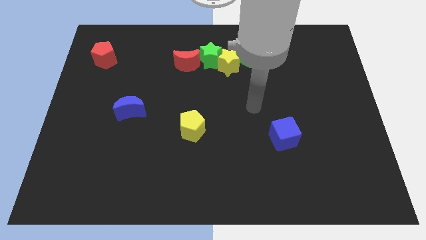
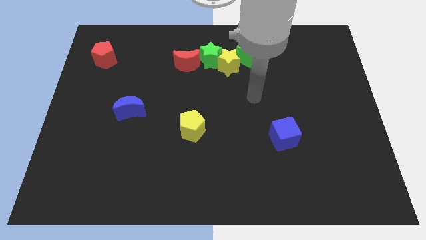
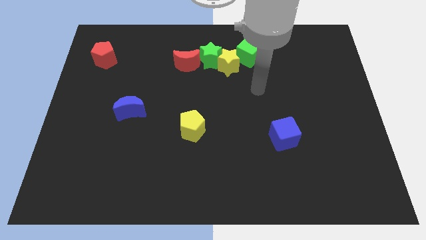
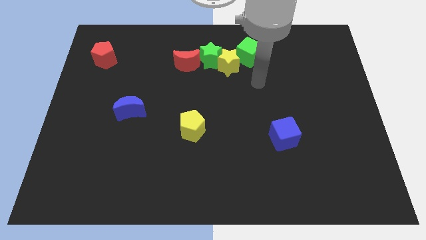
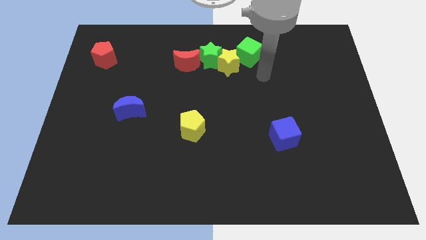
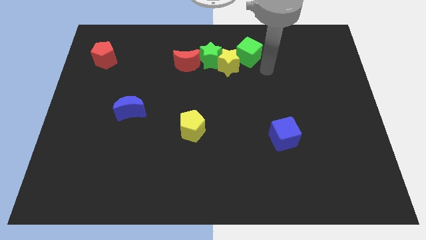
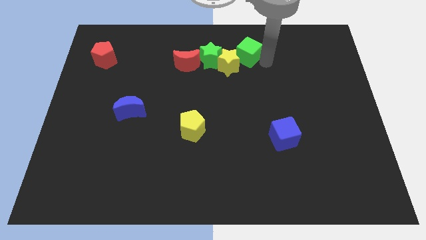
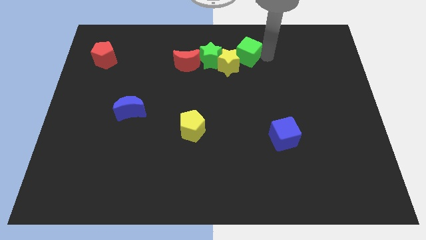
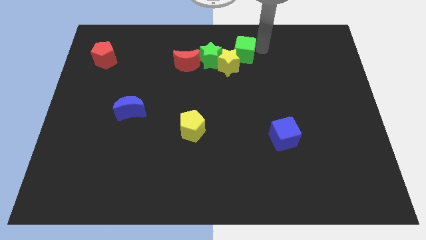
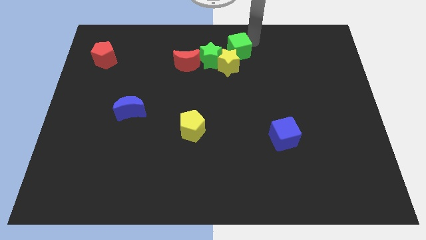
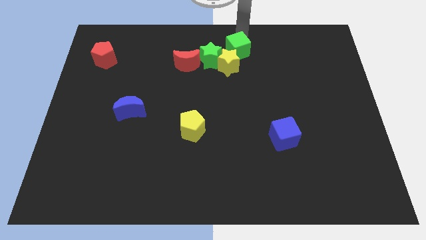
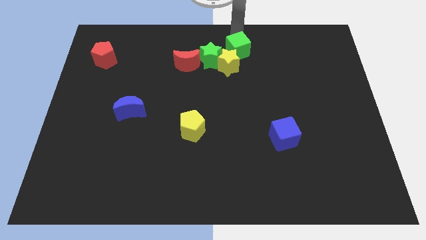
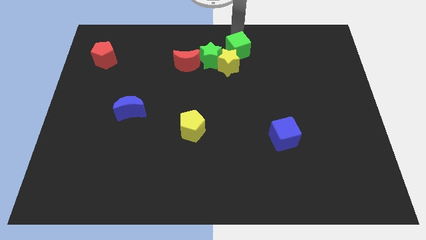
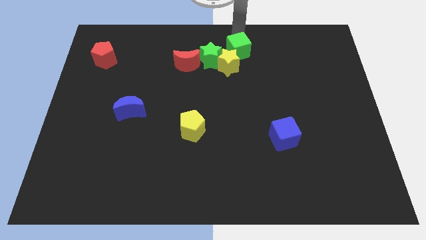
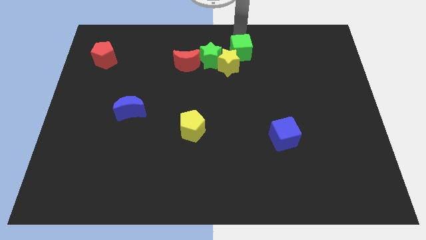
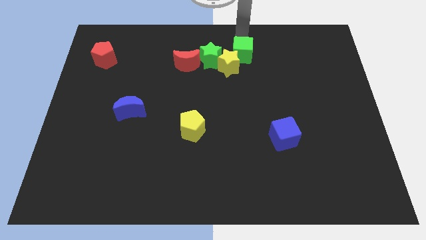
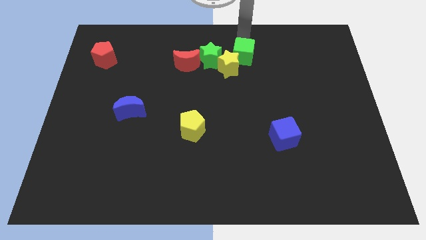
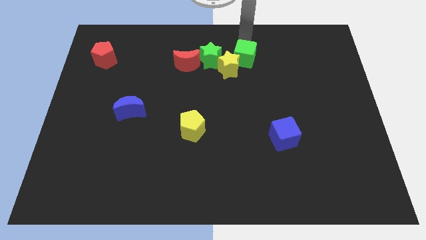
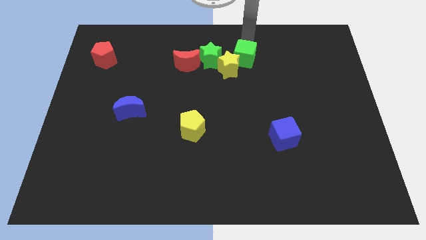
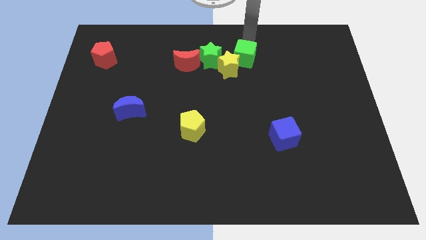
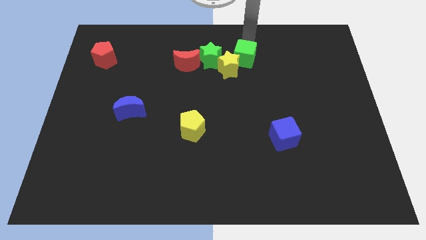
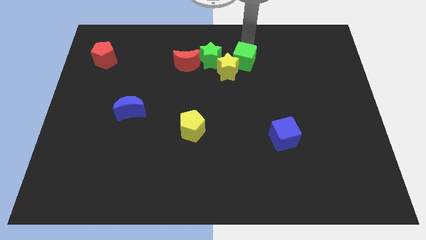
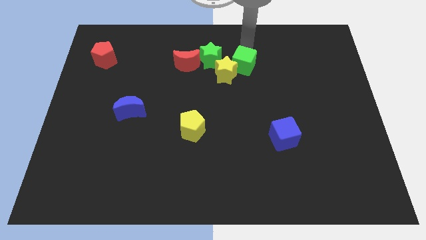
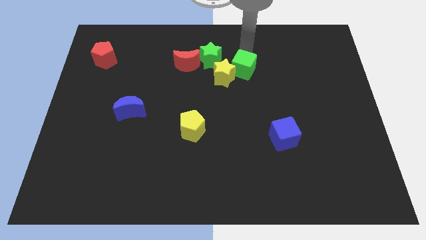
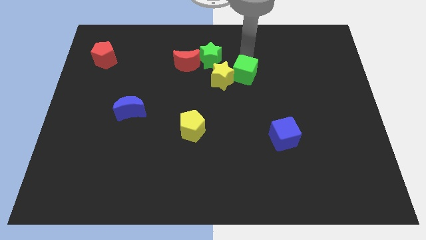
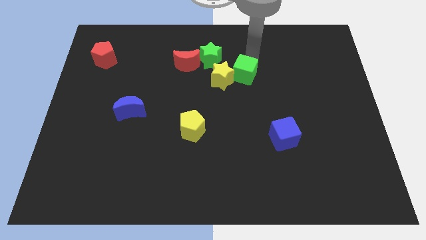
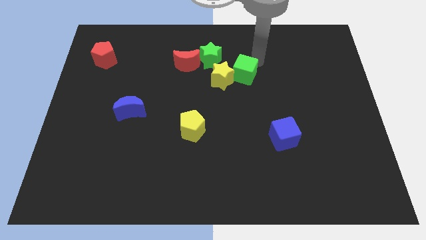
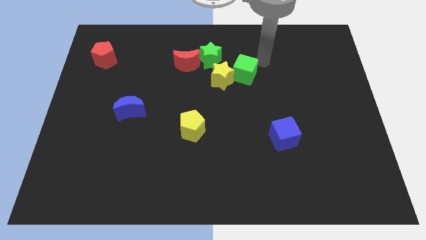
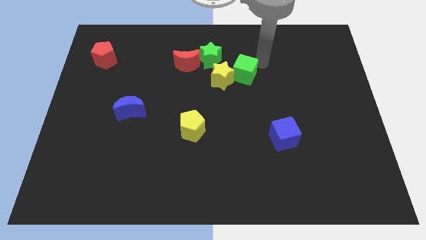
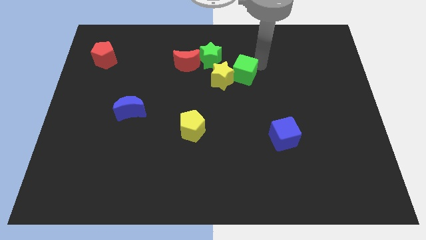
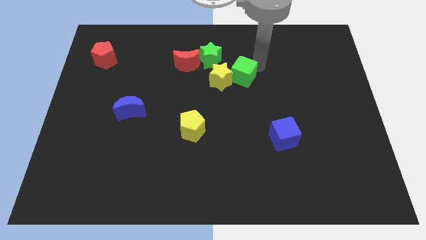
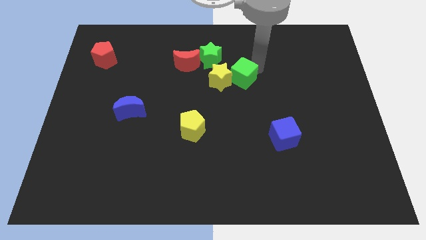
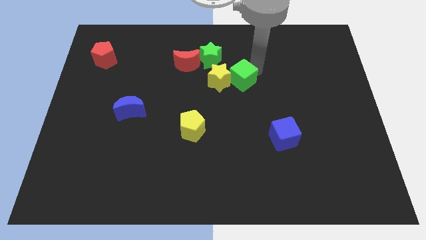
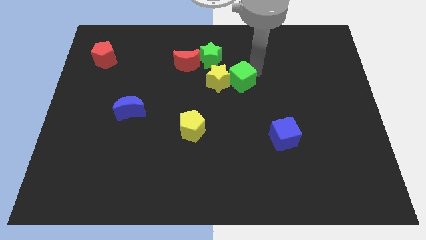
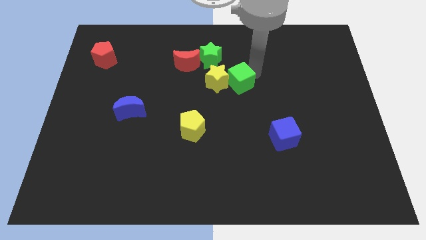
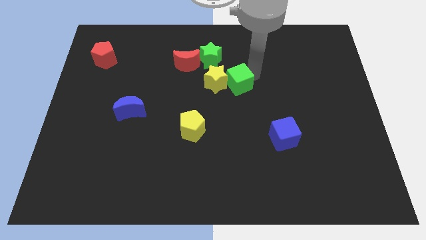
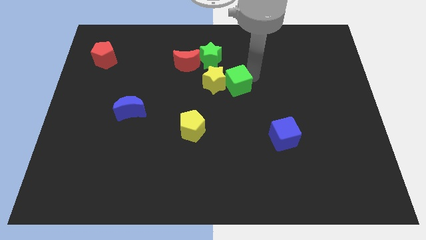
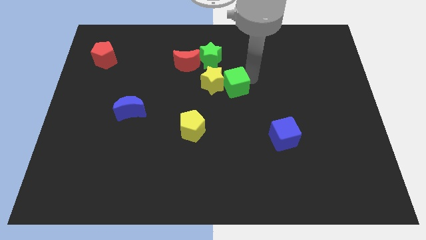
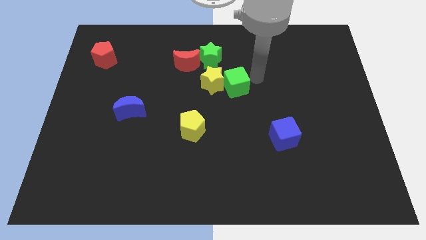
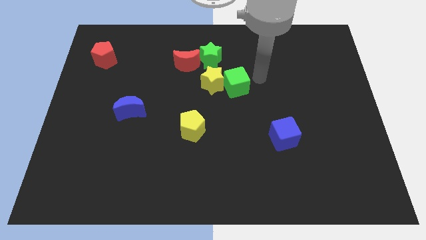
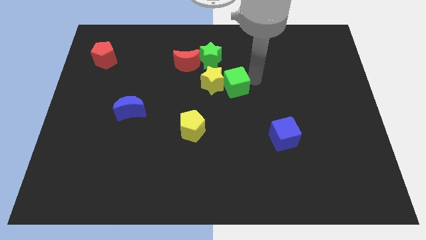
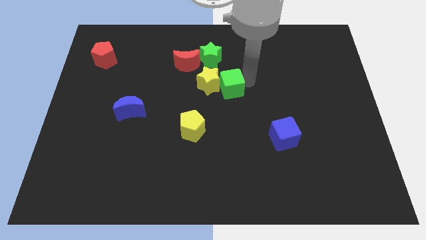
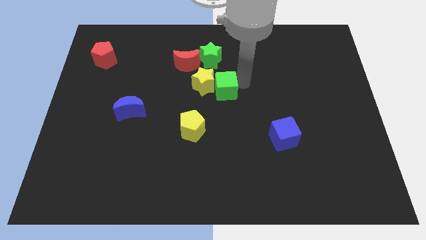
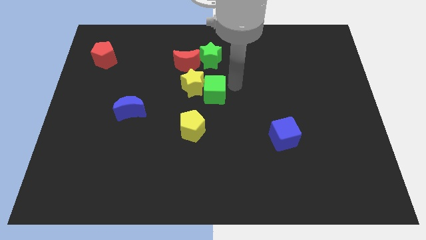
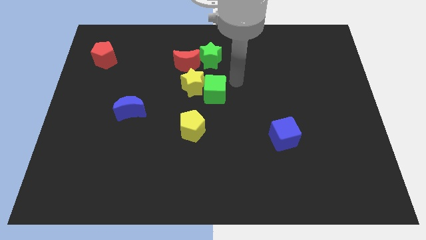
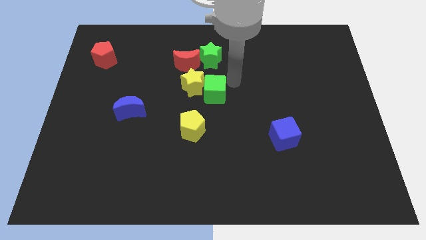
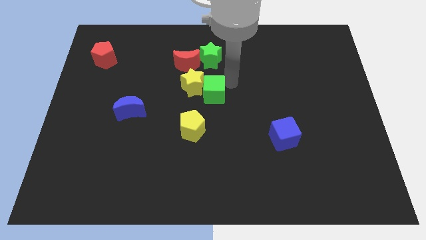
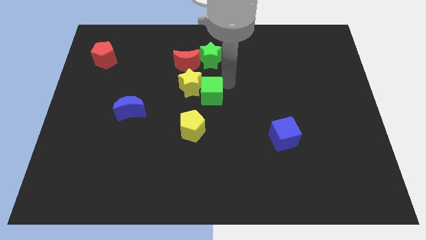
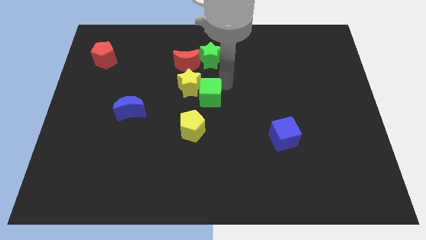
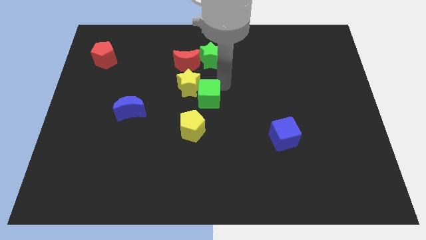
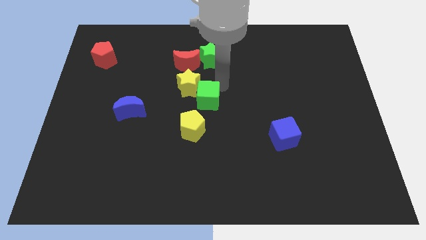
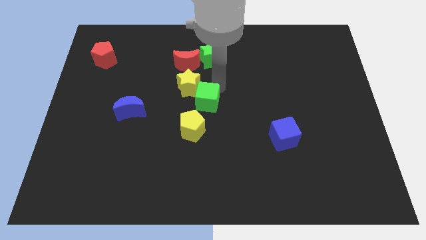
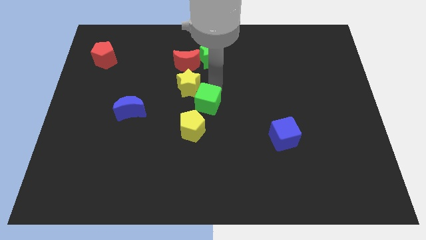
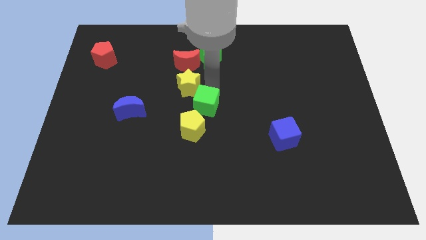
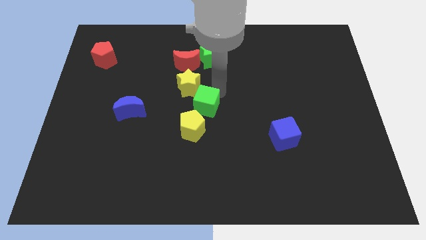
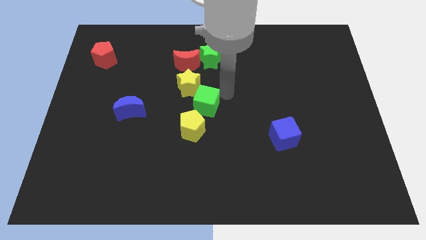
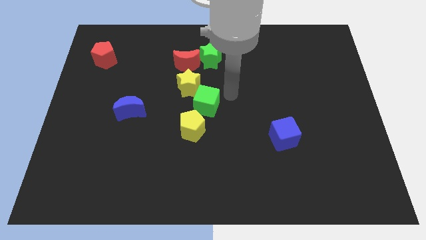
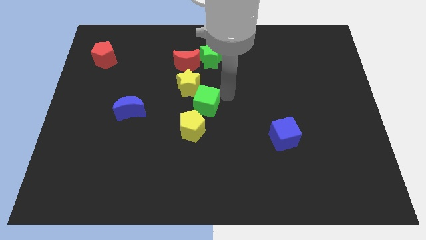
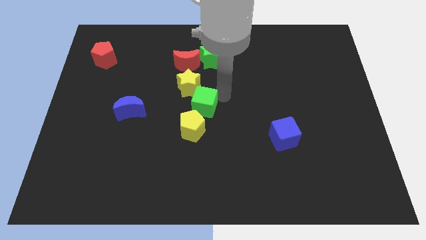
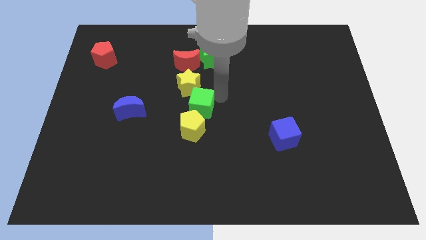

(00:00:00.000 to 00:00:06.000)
slide the green cube downwards and left diagonally

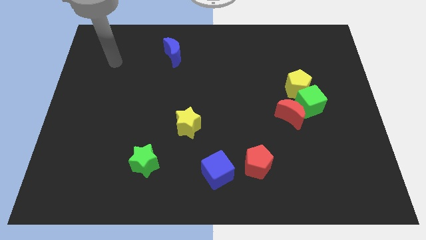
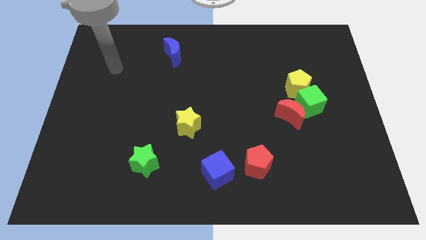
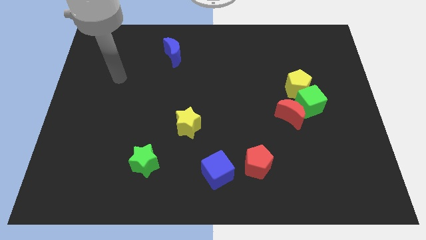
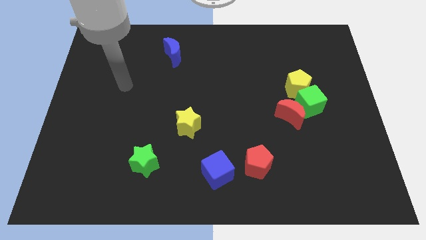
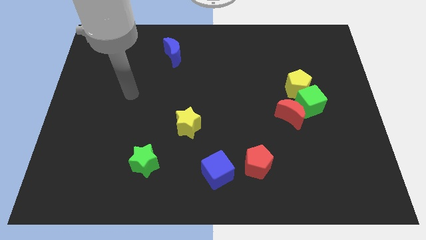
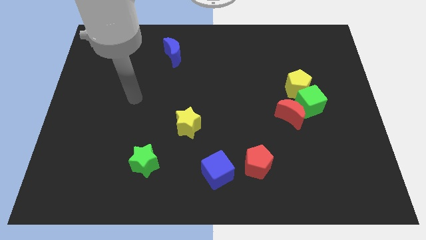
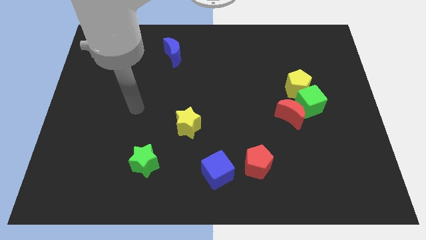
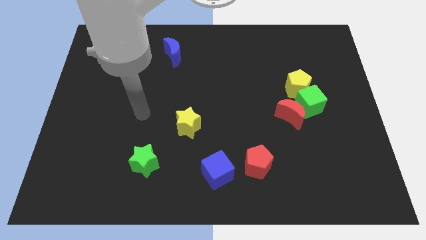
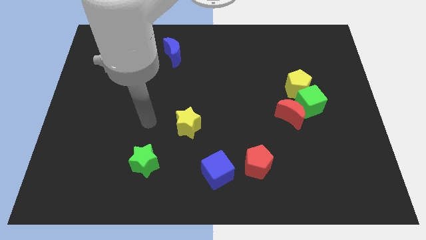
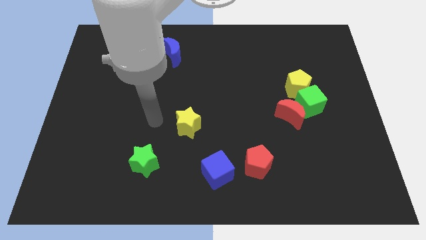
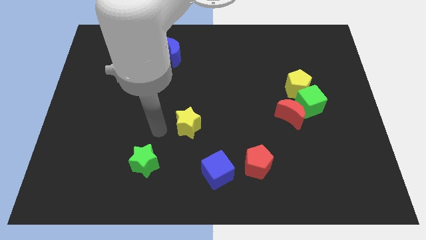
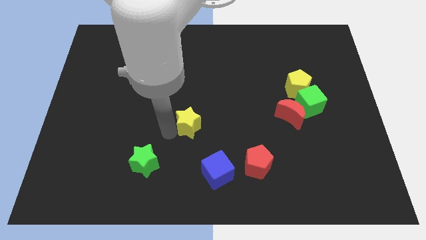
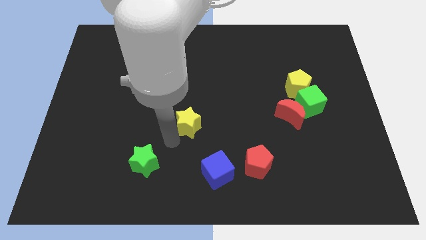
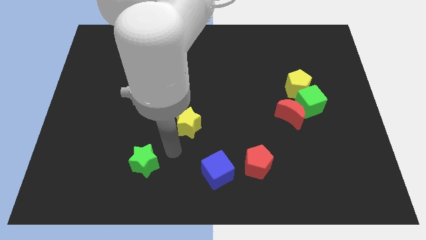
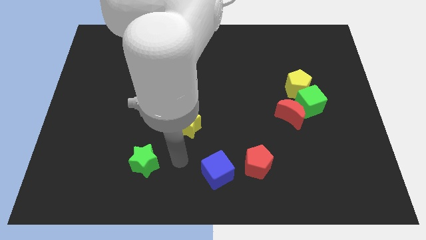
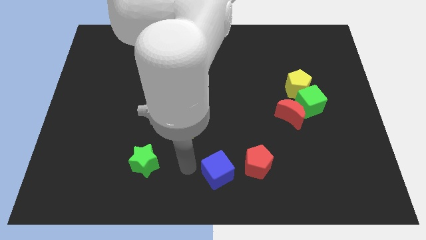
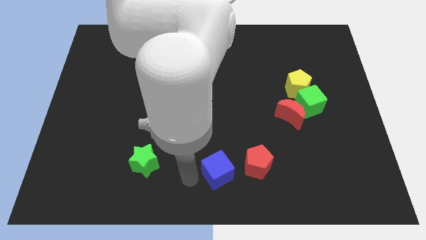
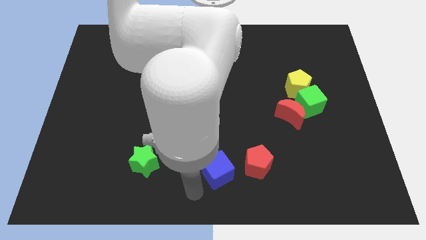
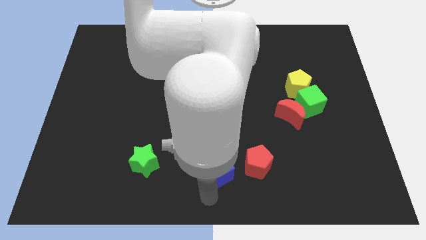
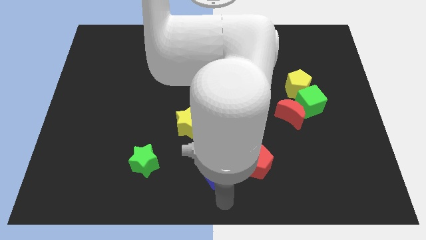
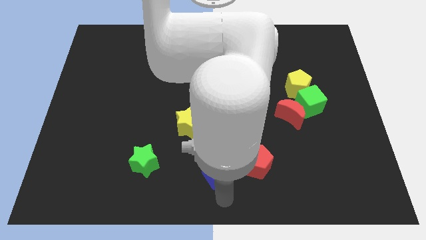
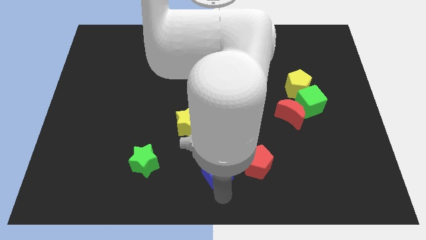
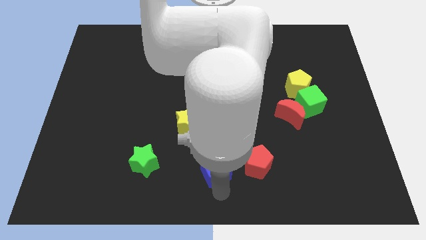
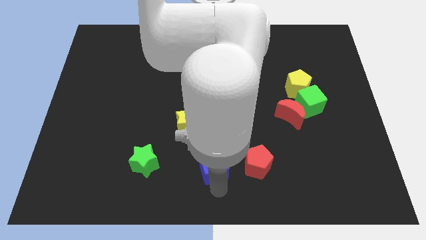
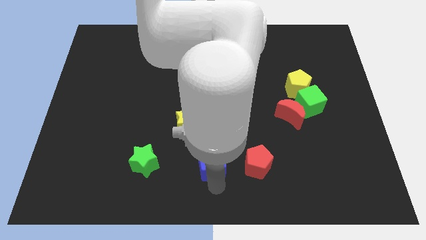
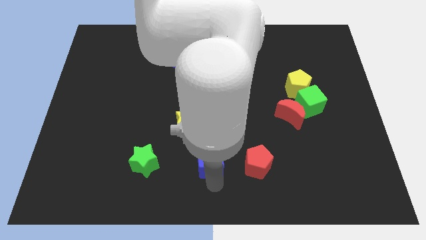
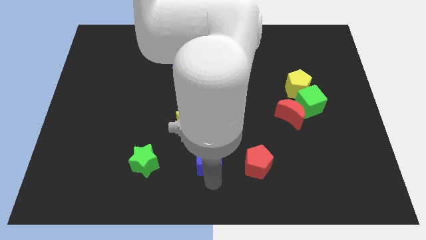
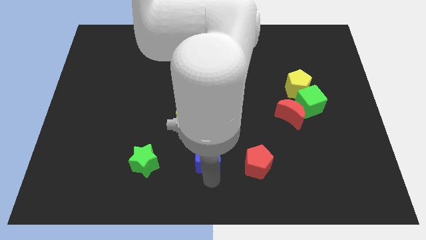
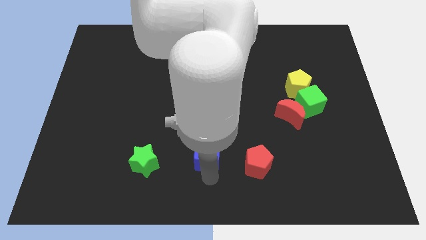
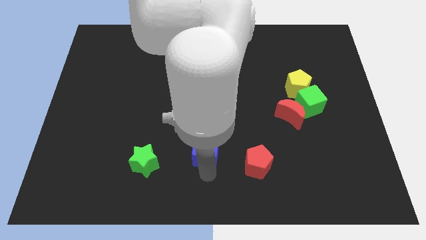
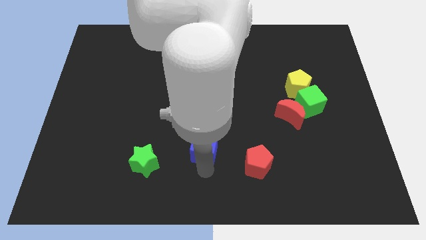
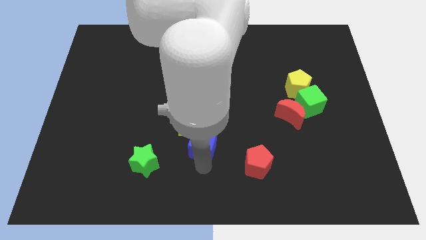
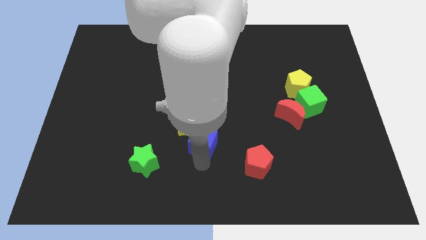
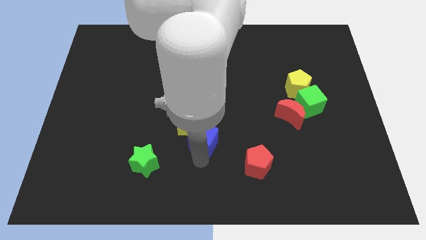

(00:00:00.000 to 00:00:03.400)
slightly push the blue cube up
